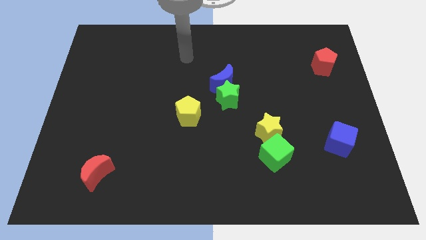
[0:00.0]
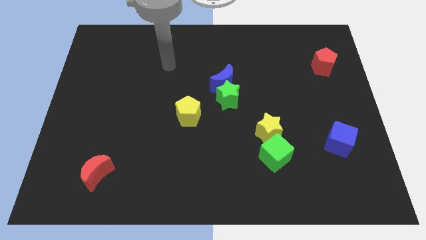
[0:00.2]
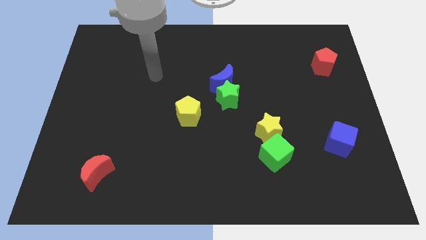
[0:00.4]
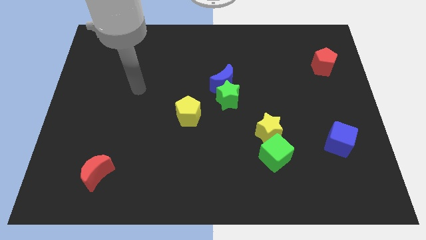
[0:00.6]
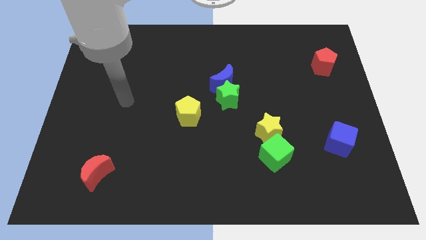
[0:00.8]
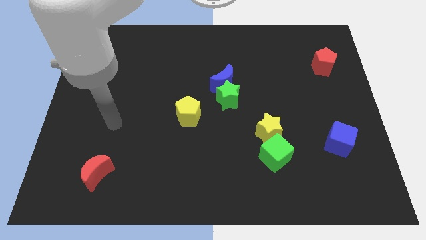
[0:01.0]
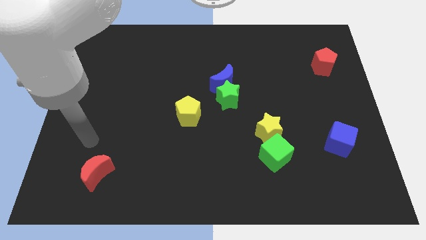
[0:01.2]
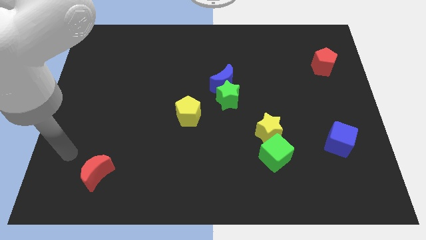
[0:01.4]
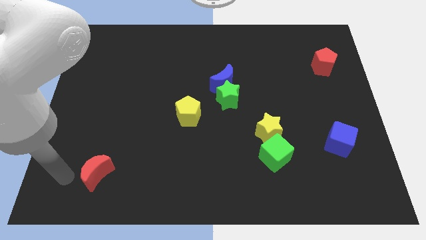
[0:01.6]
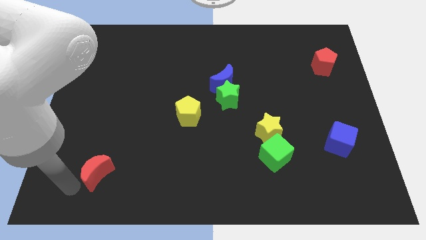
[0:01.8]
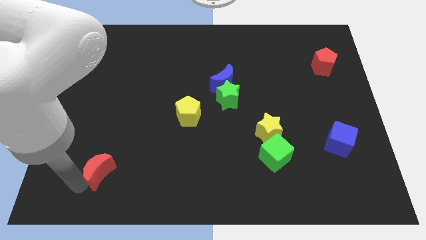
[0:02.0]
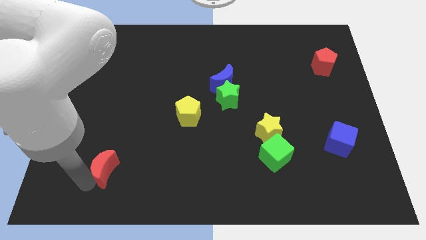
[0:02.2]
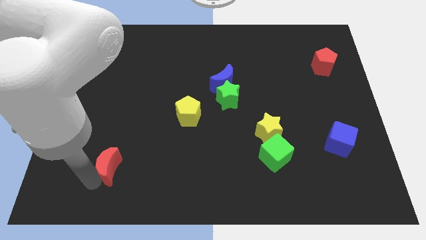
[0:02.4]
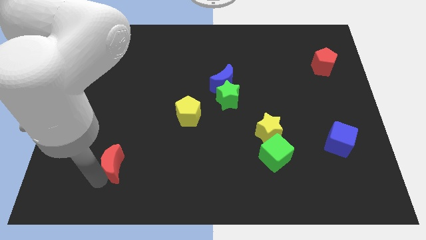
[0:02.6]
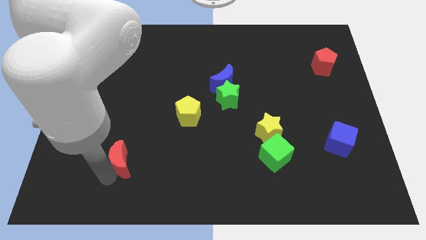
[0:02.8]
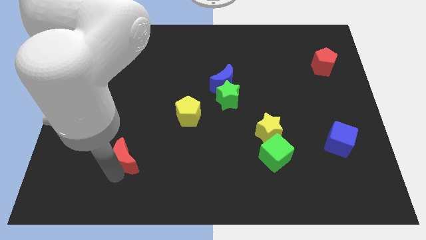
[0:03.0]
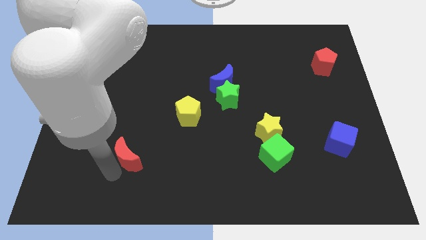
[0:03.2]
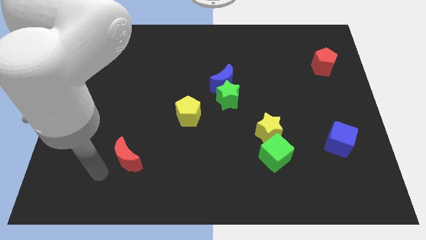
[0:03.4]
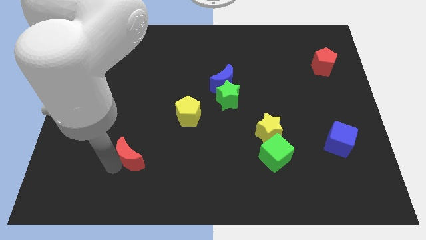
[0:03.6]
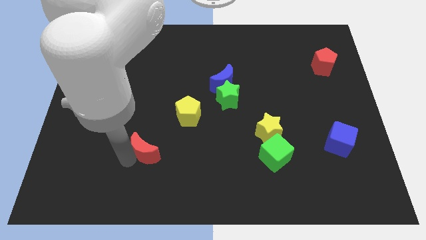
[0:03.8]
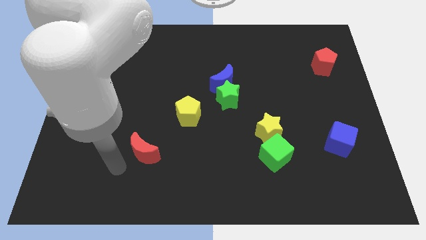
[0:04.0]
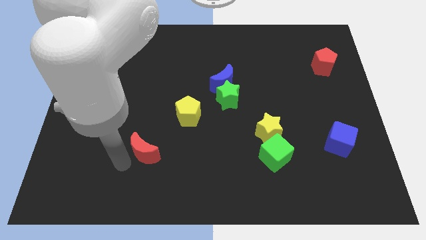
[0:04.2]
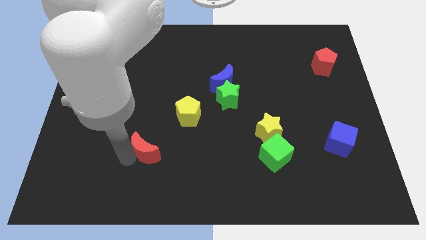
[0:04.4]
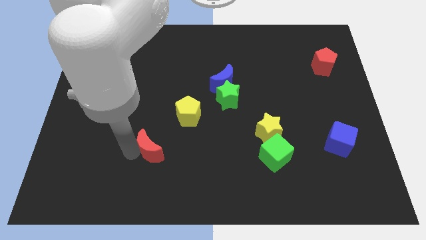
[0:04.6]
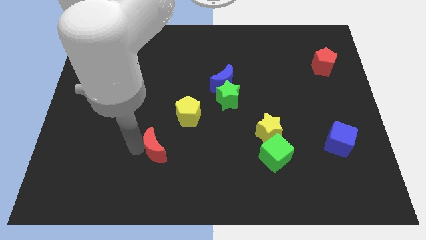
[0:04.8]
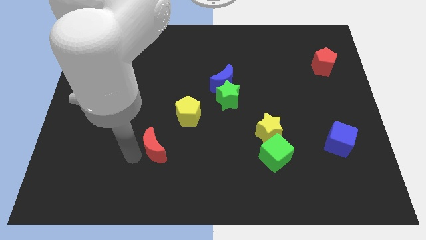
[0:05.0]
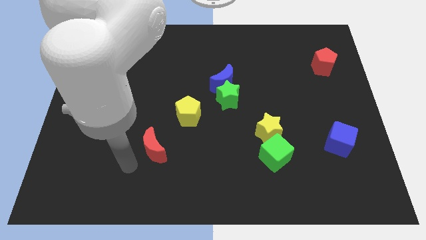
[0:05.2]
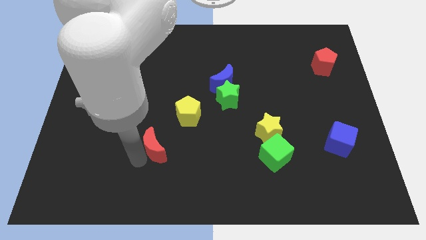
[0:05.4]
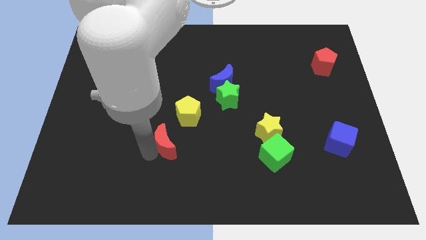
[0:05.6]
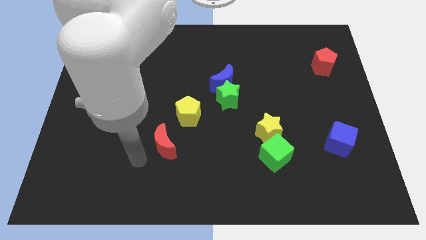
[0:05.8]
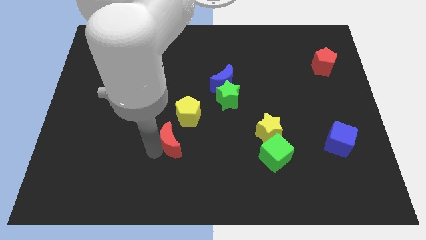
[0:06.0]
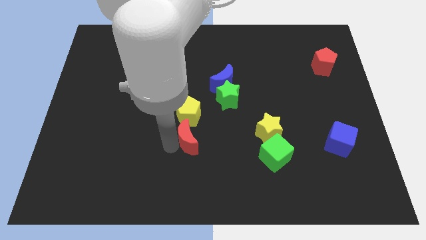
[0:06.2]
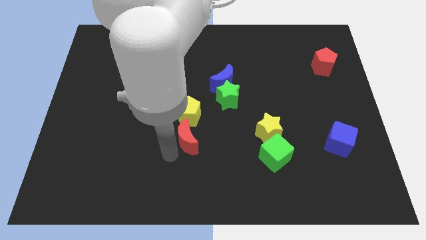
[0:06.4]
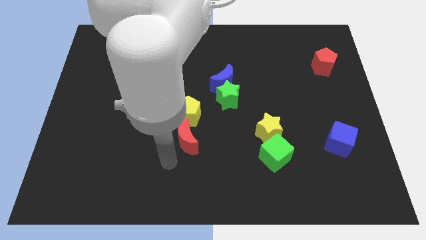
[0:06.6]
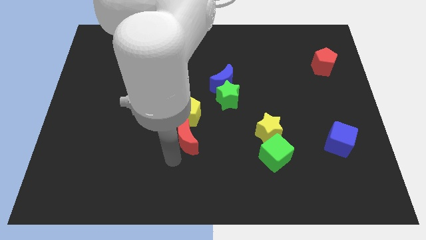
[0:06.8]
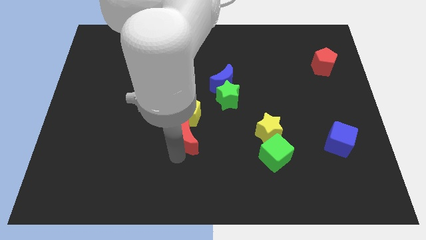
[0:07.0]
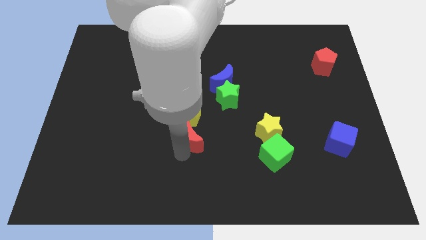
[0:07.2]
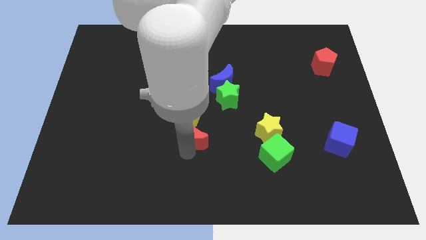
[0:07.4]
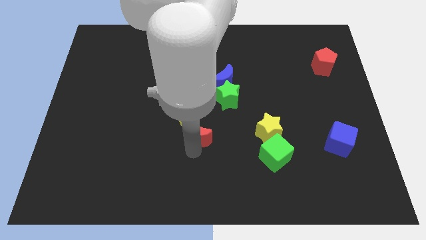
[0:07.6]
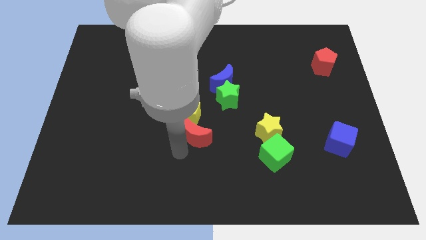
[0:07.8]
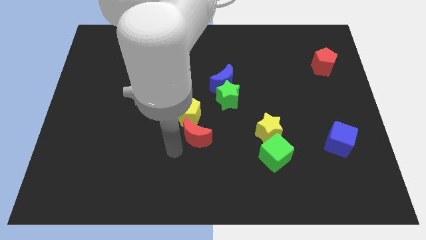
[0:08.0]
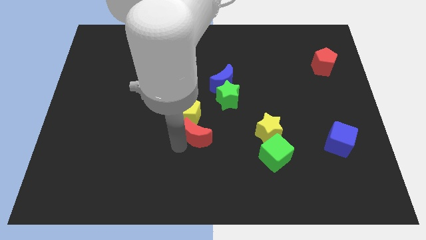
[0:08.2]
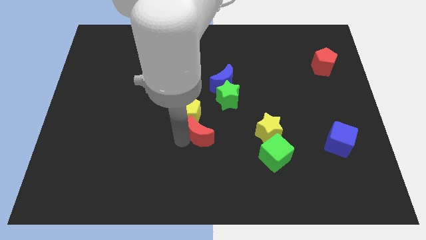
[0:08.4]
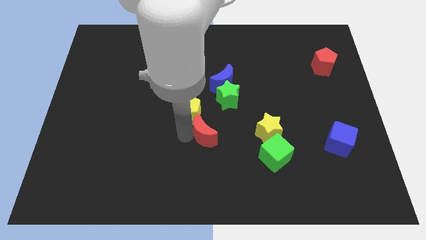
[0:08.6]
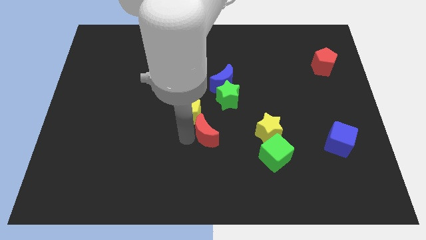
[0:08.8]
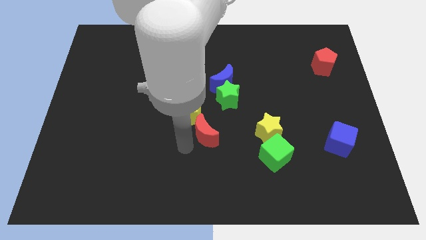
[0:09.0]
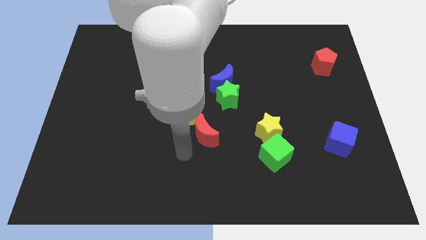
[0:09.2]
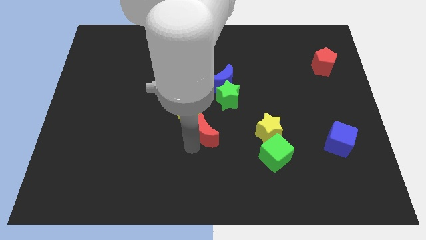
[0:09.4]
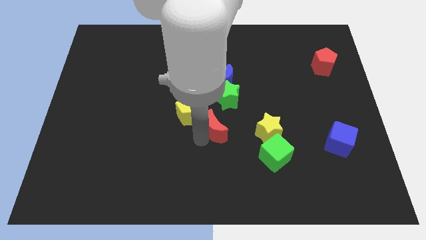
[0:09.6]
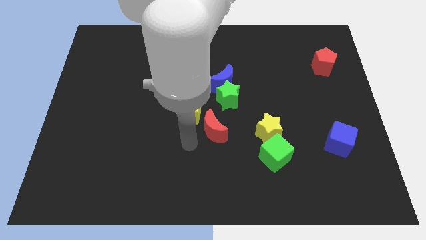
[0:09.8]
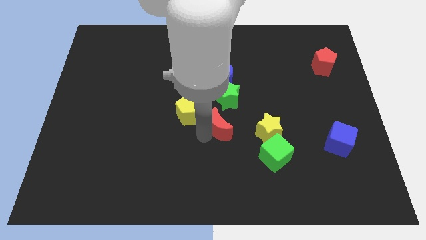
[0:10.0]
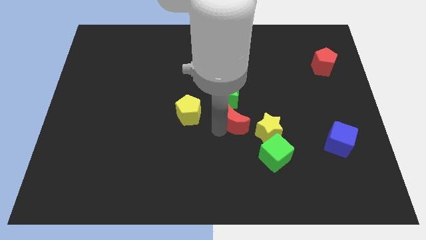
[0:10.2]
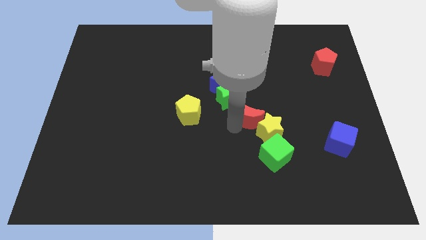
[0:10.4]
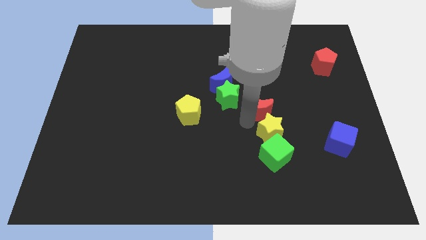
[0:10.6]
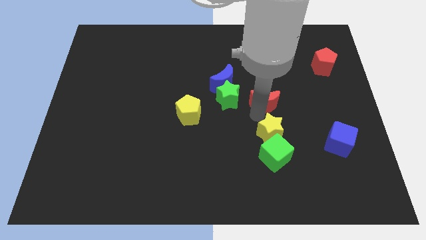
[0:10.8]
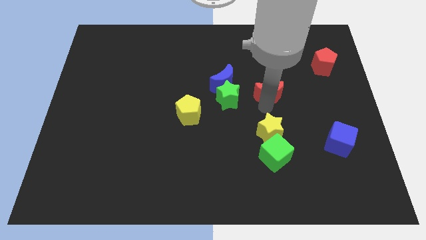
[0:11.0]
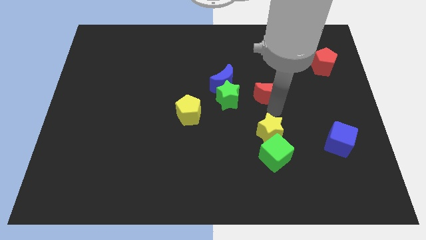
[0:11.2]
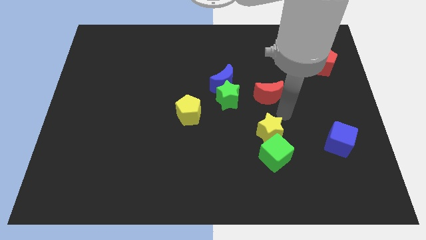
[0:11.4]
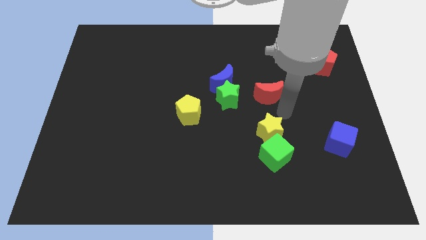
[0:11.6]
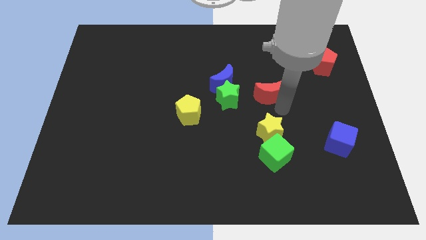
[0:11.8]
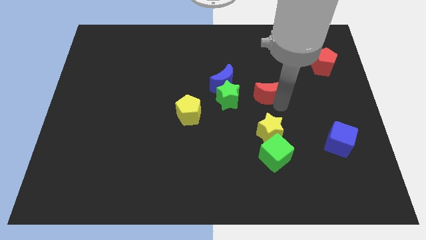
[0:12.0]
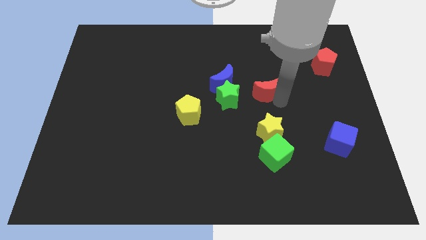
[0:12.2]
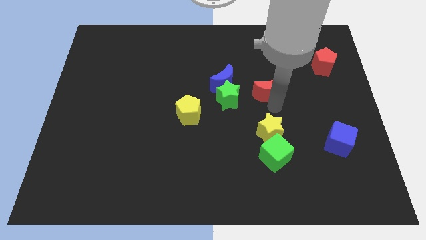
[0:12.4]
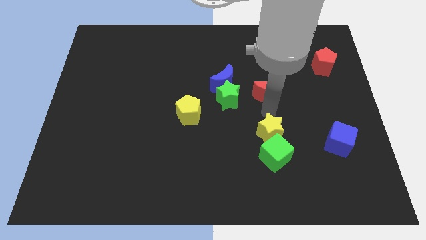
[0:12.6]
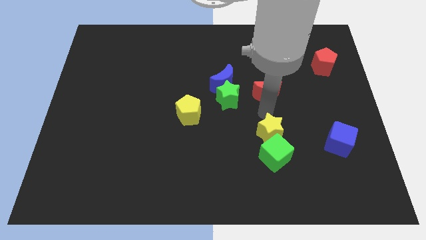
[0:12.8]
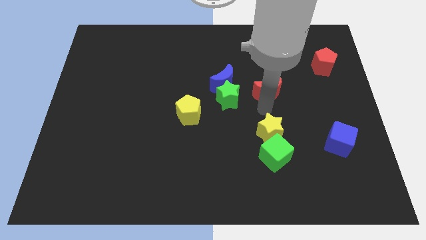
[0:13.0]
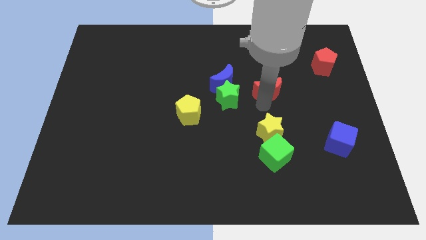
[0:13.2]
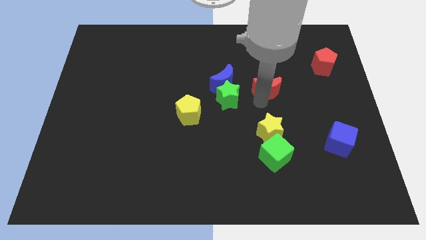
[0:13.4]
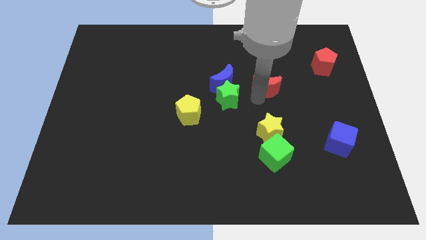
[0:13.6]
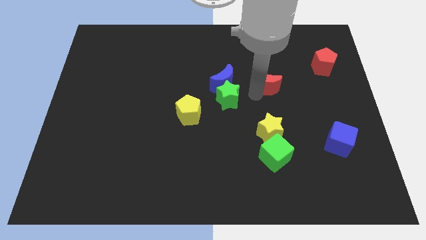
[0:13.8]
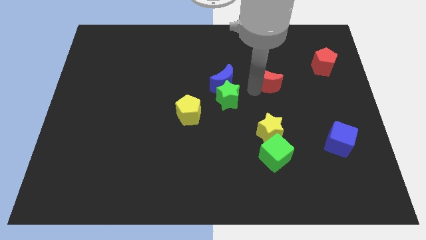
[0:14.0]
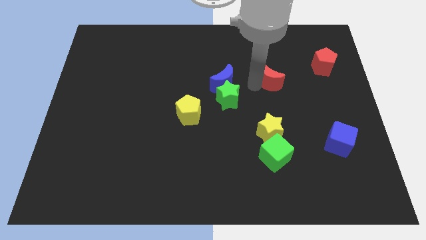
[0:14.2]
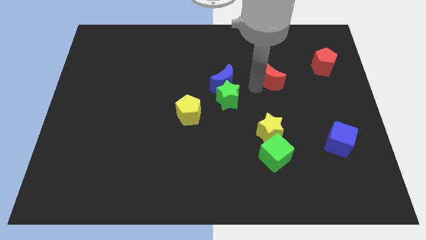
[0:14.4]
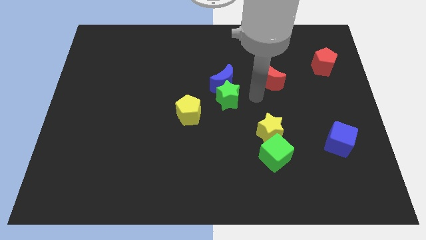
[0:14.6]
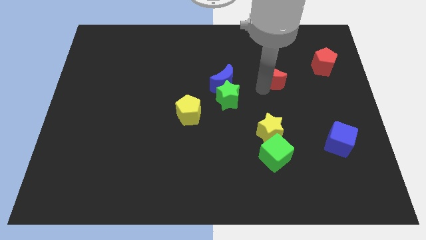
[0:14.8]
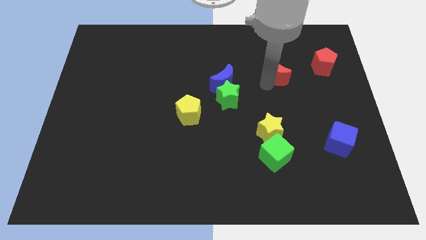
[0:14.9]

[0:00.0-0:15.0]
slide the red moon to the left side of the red pentagon
